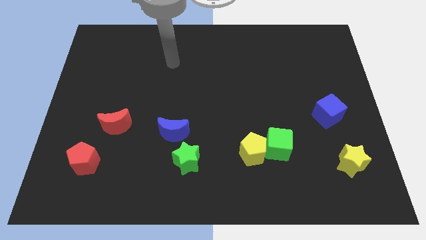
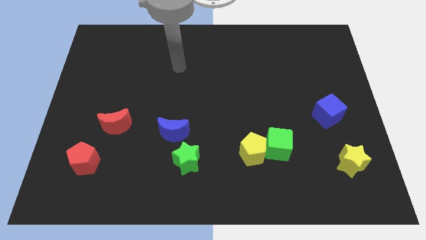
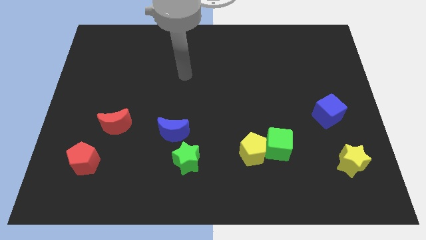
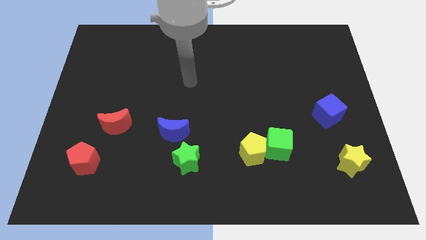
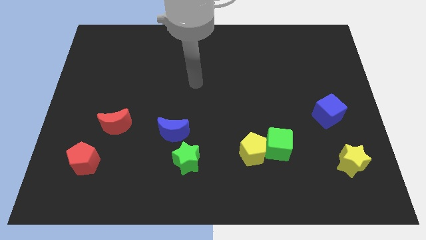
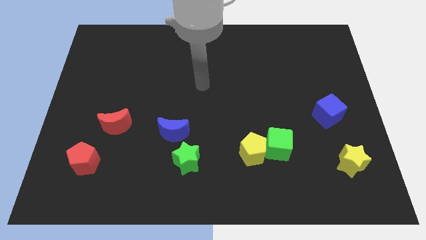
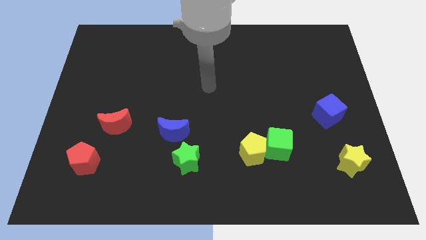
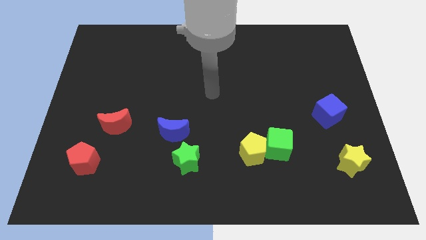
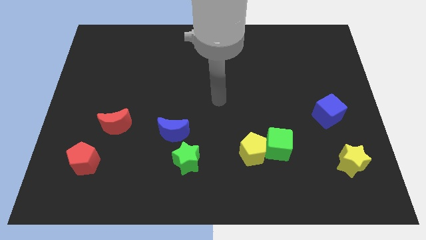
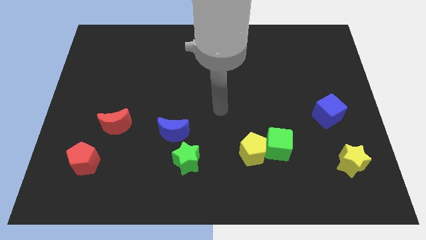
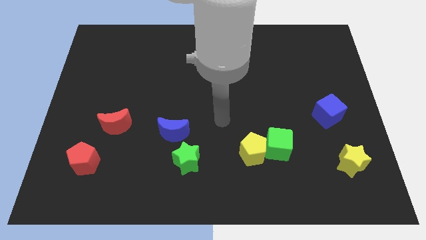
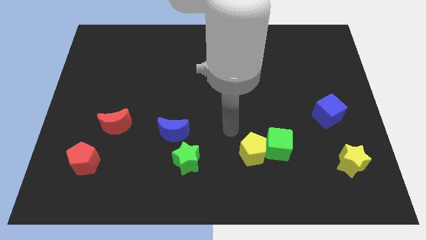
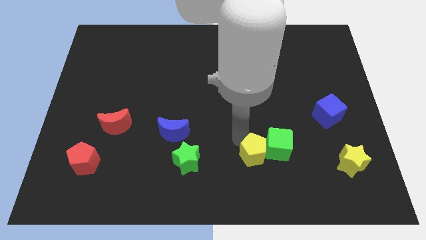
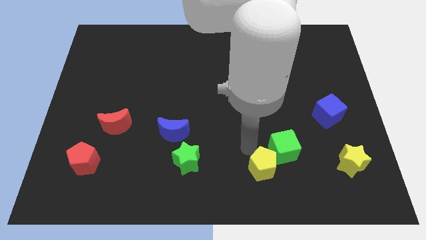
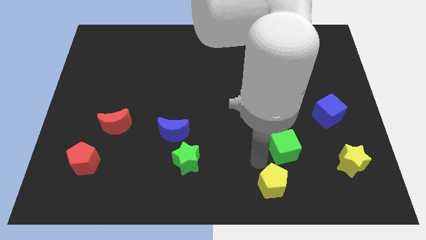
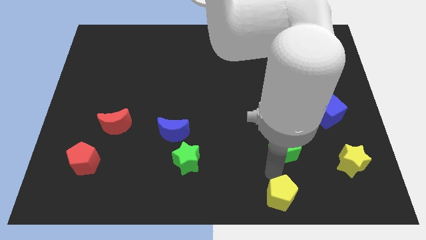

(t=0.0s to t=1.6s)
pull the green cube apart from the yellow pentagon
